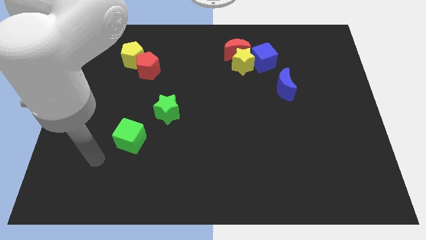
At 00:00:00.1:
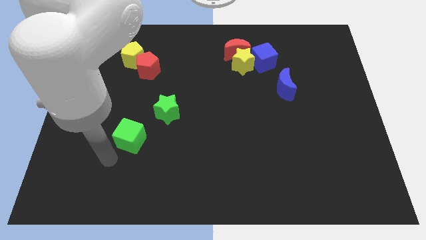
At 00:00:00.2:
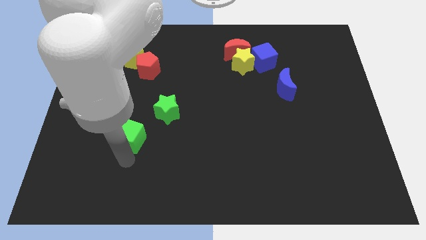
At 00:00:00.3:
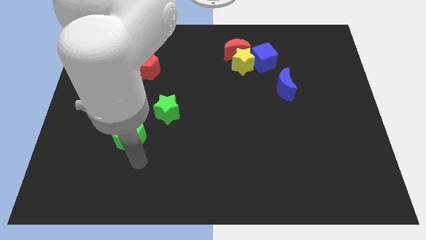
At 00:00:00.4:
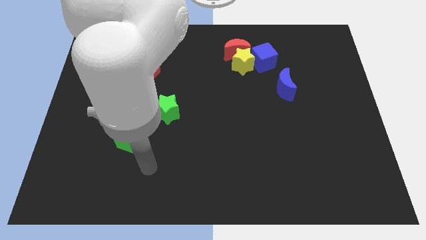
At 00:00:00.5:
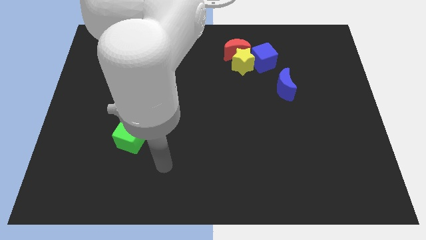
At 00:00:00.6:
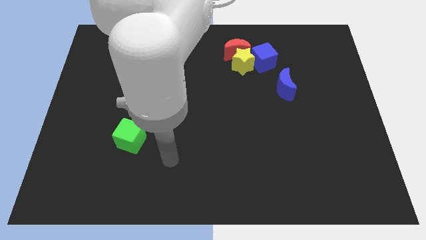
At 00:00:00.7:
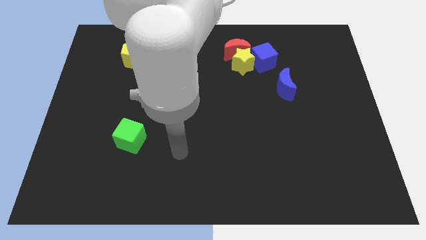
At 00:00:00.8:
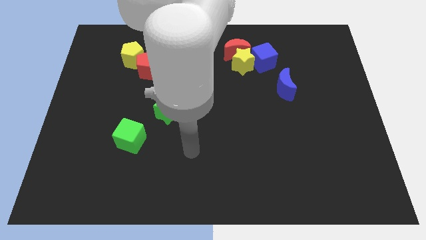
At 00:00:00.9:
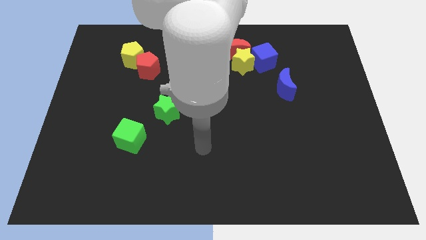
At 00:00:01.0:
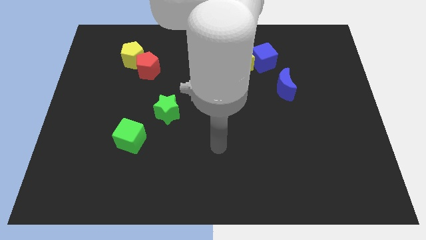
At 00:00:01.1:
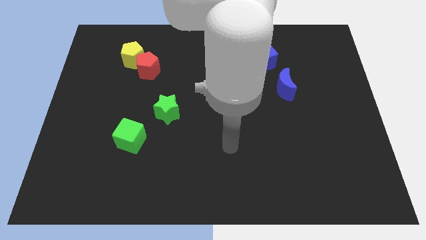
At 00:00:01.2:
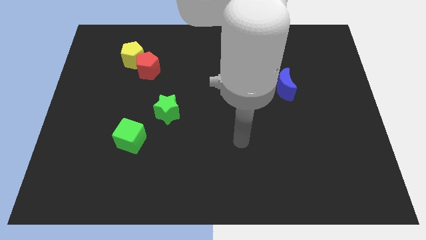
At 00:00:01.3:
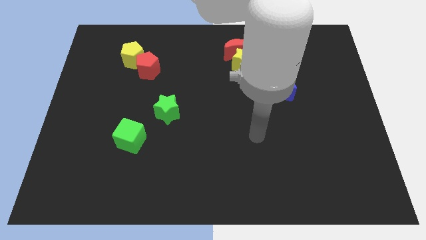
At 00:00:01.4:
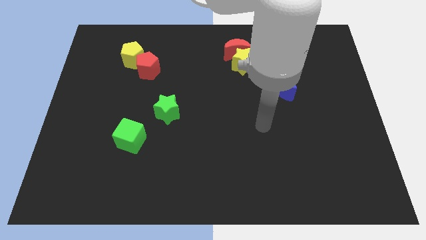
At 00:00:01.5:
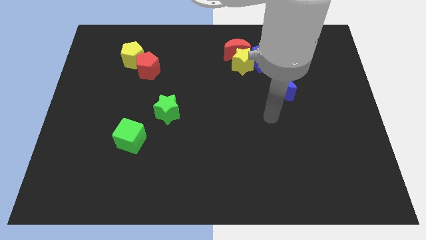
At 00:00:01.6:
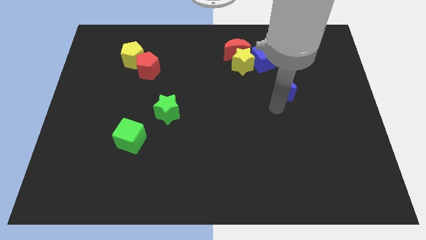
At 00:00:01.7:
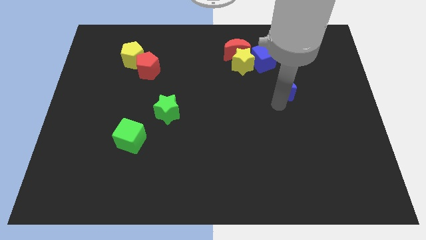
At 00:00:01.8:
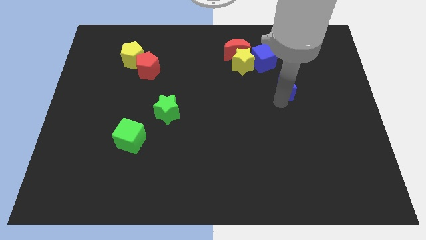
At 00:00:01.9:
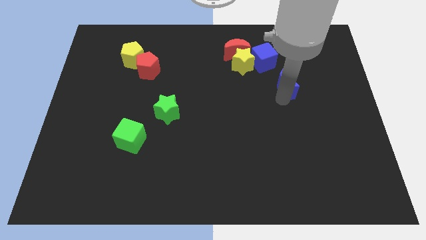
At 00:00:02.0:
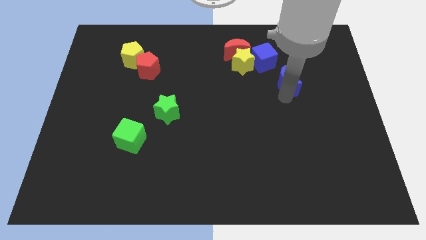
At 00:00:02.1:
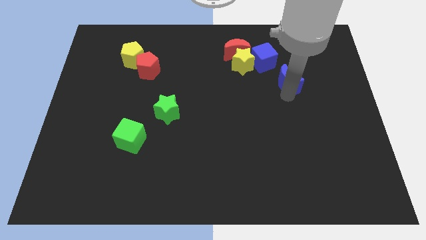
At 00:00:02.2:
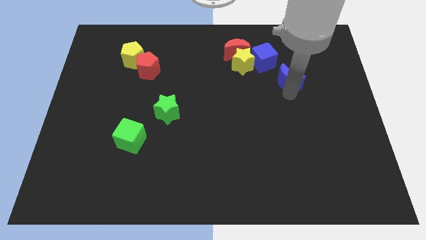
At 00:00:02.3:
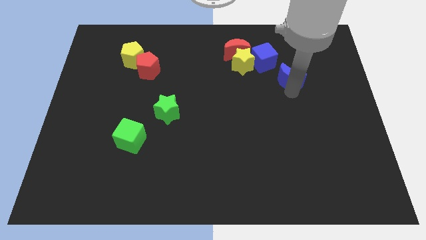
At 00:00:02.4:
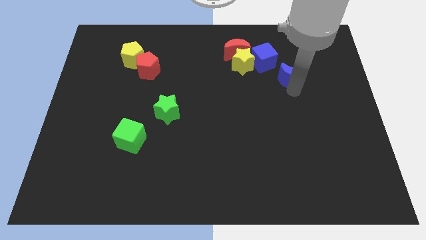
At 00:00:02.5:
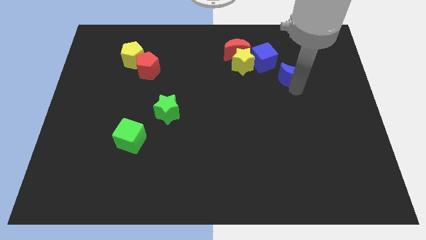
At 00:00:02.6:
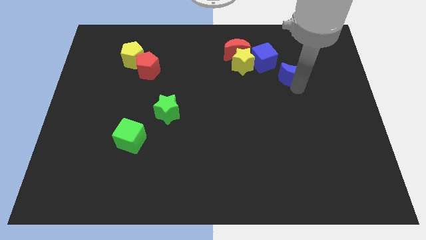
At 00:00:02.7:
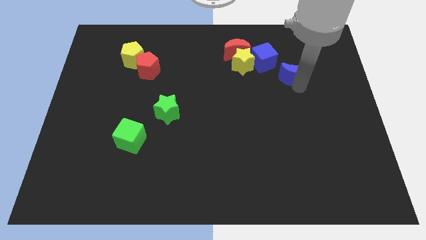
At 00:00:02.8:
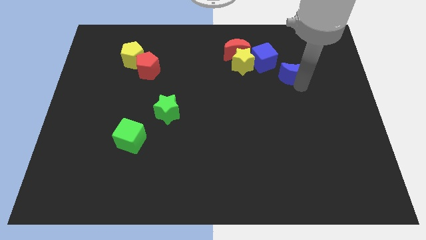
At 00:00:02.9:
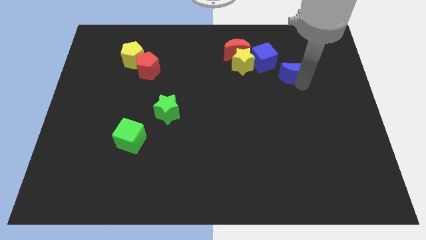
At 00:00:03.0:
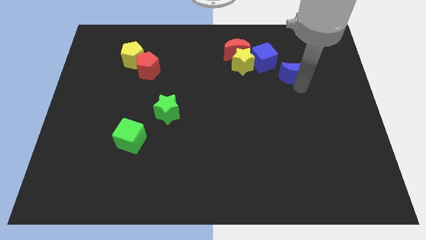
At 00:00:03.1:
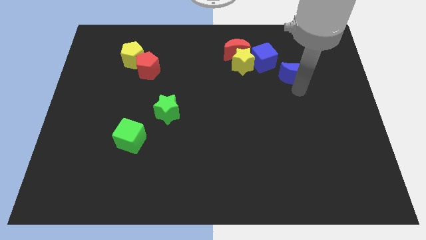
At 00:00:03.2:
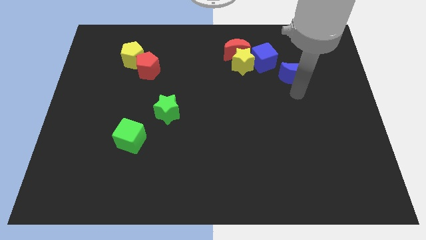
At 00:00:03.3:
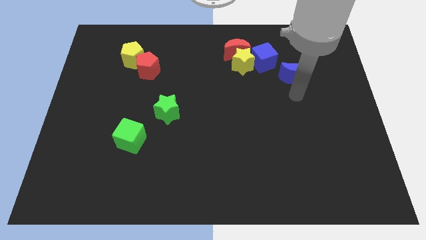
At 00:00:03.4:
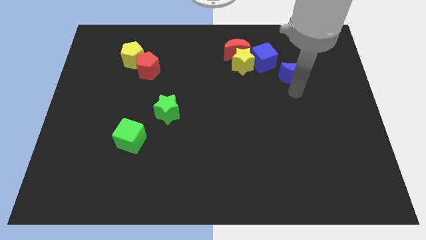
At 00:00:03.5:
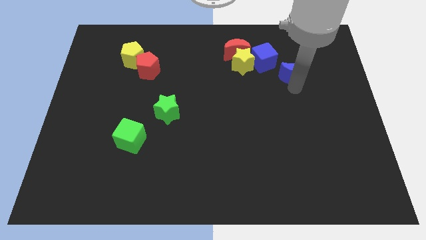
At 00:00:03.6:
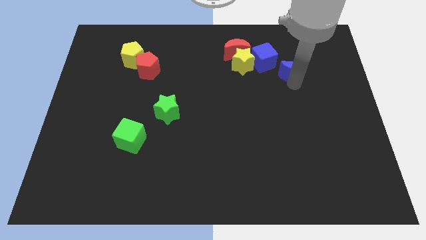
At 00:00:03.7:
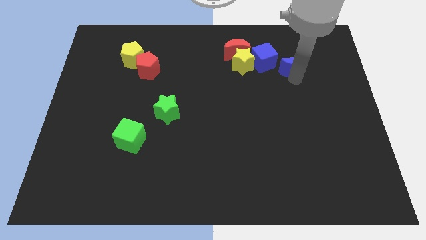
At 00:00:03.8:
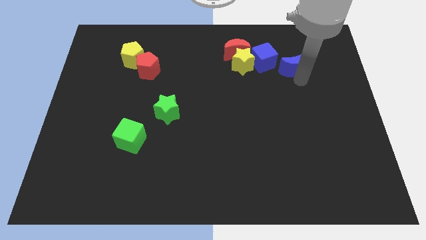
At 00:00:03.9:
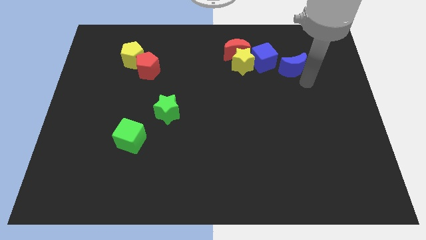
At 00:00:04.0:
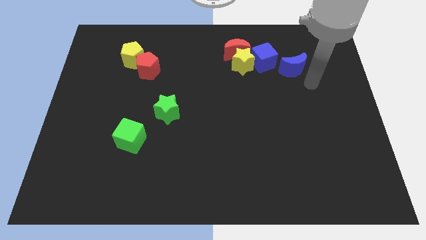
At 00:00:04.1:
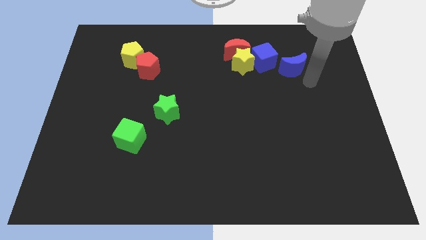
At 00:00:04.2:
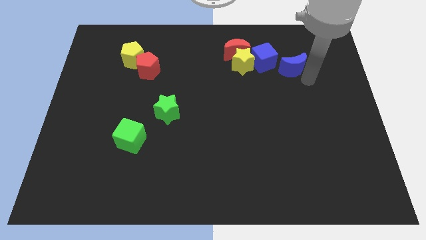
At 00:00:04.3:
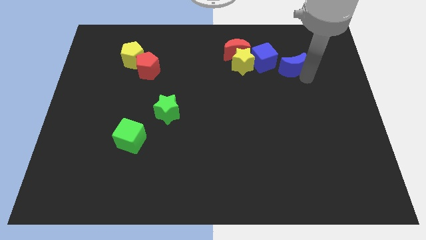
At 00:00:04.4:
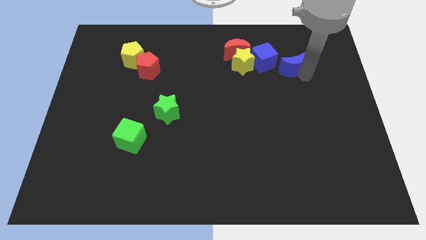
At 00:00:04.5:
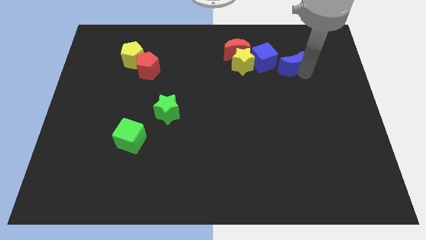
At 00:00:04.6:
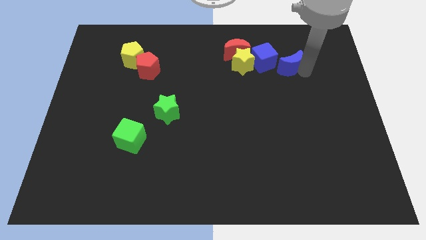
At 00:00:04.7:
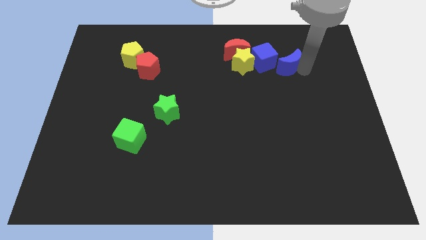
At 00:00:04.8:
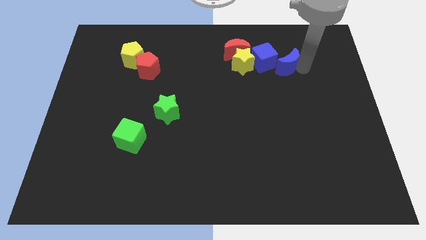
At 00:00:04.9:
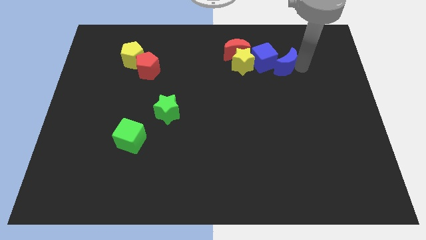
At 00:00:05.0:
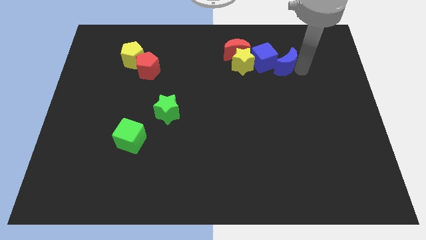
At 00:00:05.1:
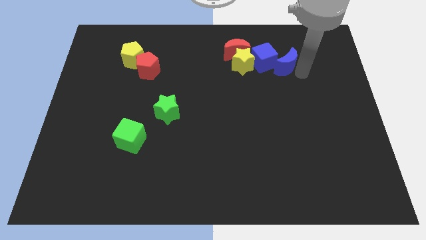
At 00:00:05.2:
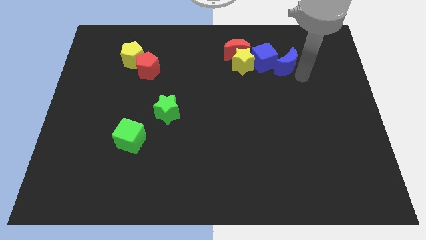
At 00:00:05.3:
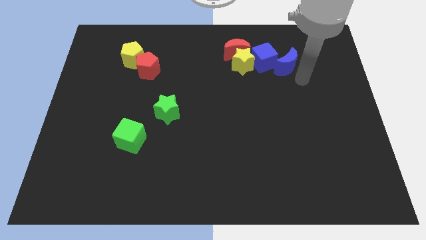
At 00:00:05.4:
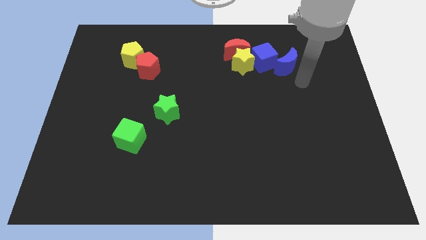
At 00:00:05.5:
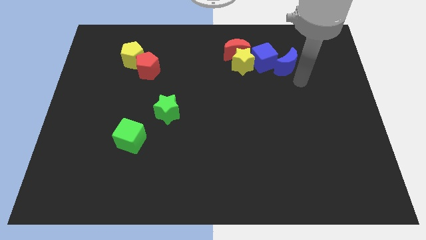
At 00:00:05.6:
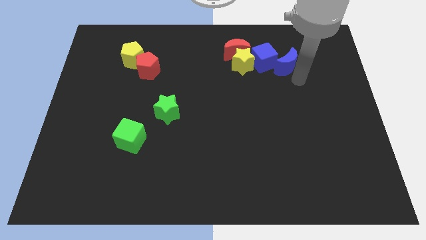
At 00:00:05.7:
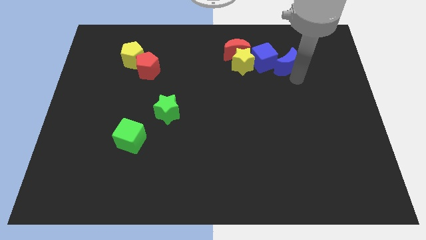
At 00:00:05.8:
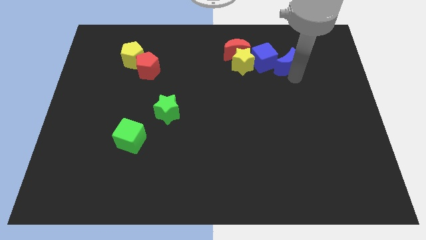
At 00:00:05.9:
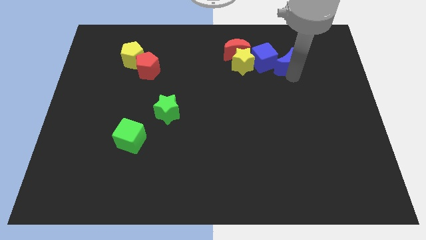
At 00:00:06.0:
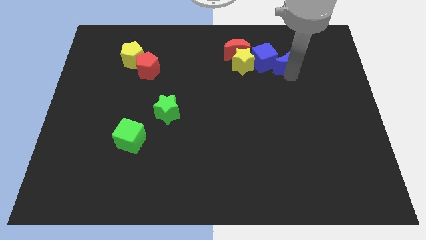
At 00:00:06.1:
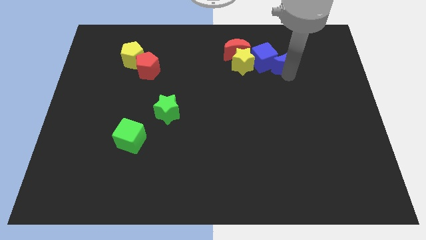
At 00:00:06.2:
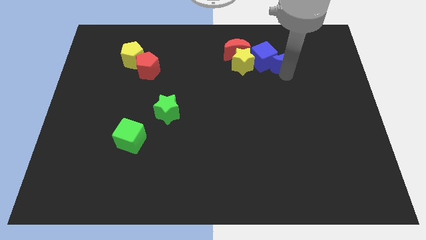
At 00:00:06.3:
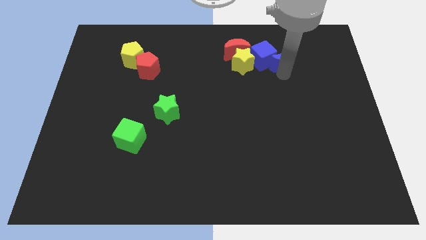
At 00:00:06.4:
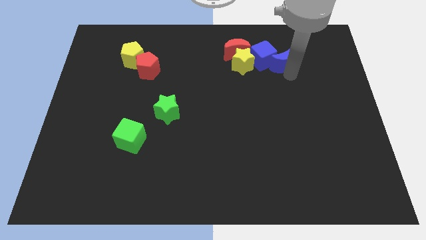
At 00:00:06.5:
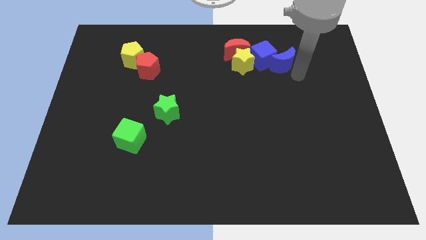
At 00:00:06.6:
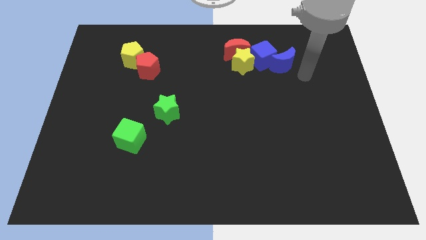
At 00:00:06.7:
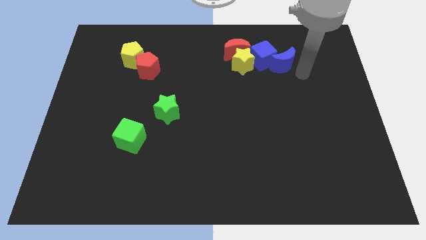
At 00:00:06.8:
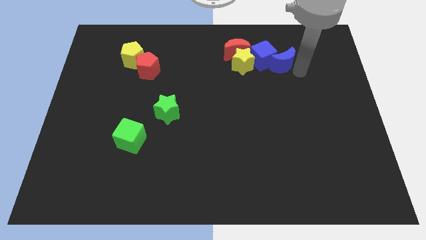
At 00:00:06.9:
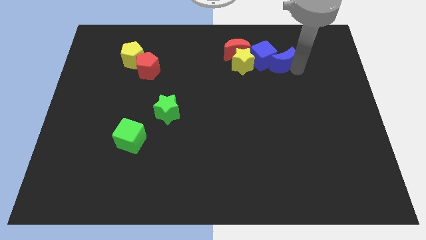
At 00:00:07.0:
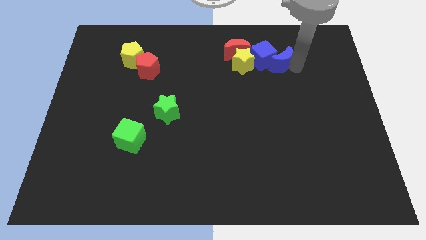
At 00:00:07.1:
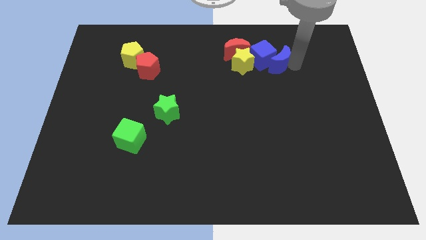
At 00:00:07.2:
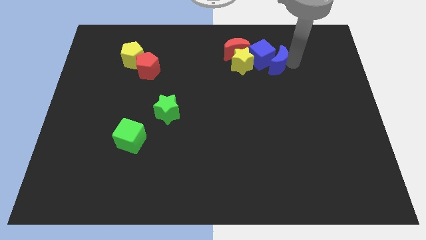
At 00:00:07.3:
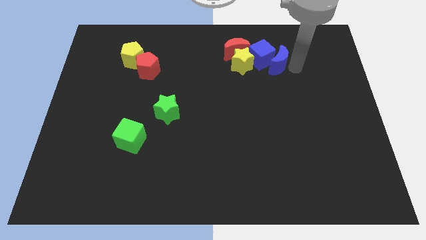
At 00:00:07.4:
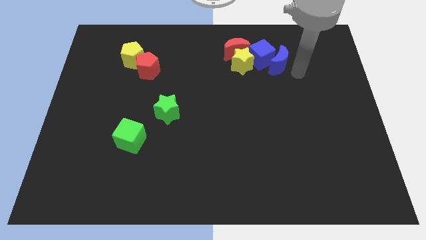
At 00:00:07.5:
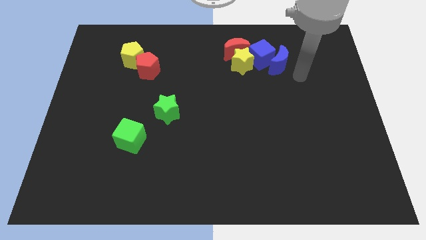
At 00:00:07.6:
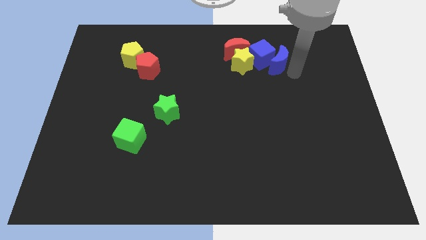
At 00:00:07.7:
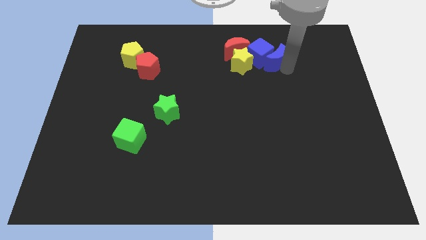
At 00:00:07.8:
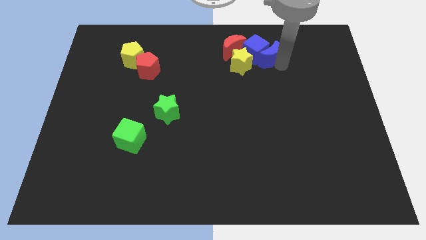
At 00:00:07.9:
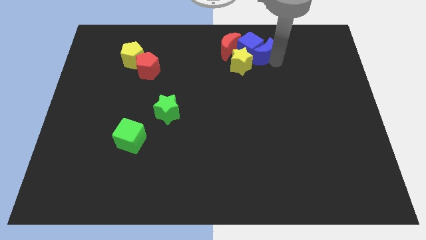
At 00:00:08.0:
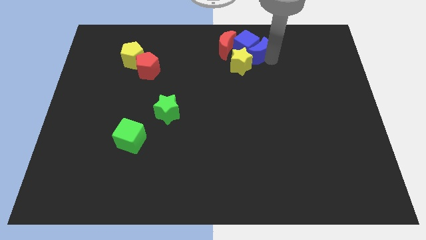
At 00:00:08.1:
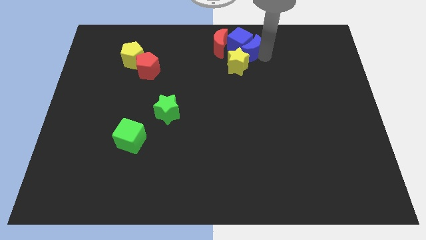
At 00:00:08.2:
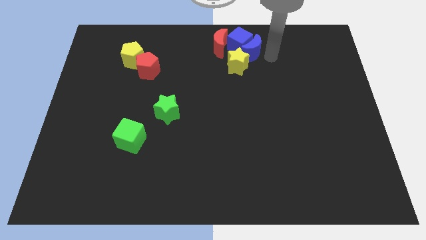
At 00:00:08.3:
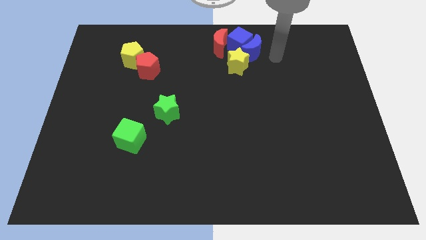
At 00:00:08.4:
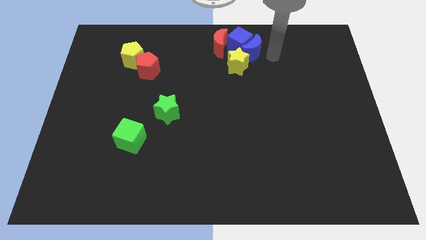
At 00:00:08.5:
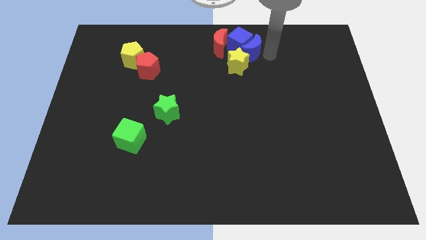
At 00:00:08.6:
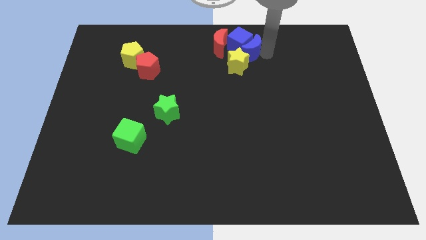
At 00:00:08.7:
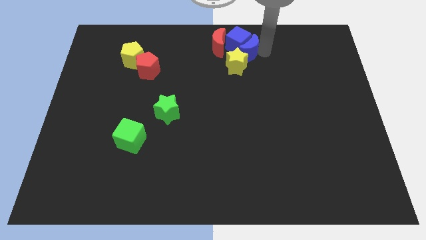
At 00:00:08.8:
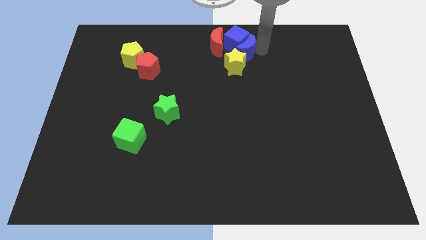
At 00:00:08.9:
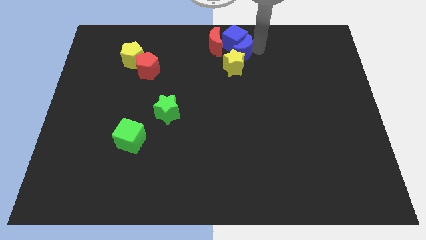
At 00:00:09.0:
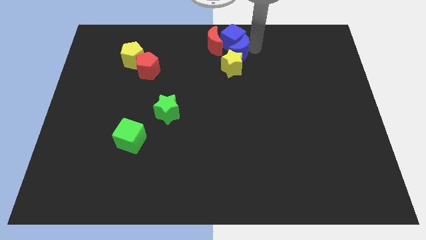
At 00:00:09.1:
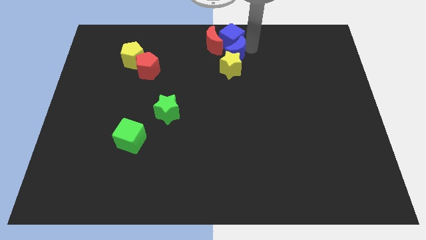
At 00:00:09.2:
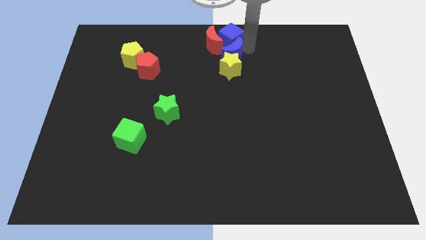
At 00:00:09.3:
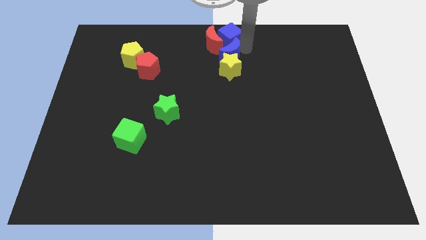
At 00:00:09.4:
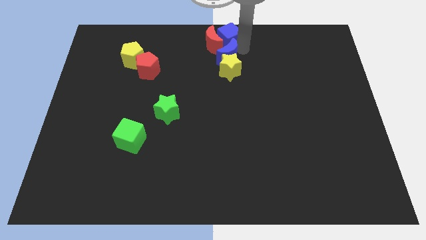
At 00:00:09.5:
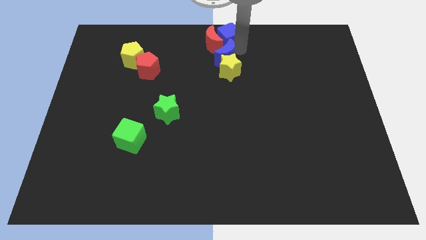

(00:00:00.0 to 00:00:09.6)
push the blue moon close to the red moon
